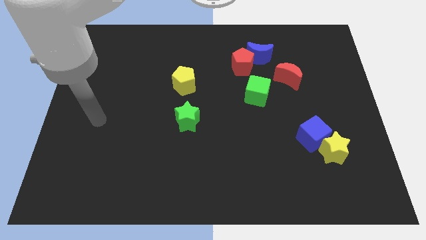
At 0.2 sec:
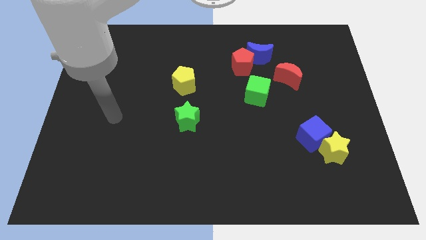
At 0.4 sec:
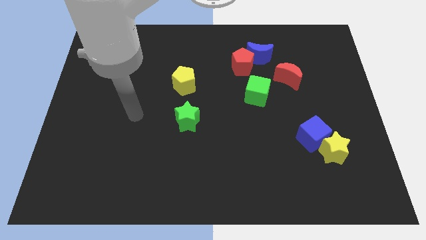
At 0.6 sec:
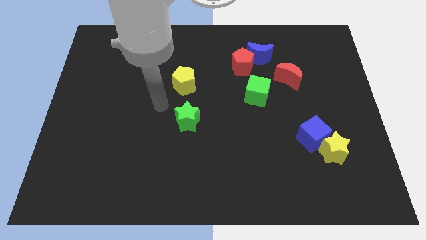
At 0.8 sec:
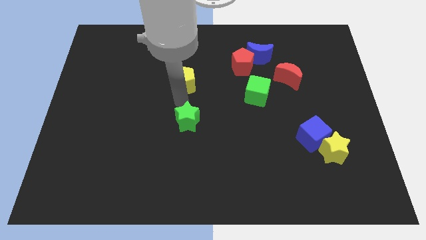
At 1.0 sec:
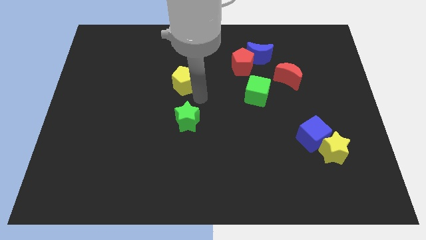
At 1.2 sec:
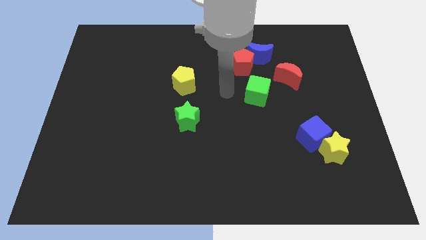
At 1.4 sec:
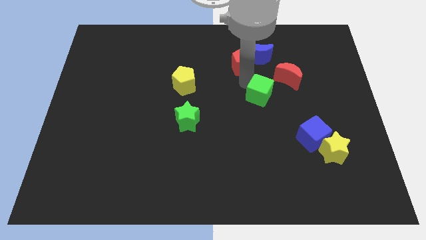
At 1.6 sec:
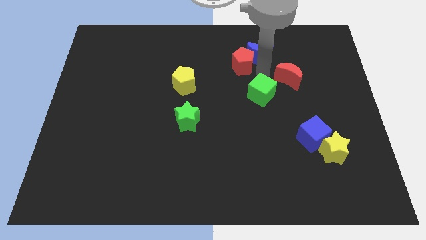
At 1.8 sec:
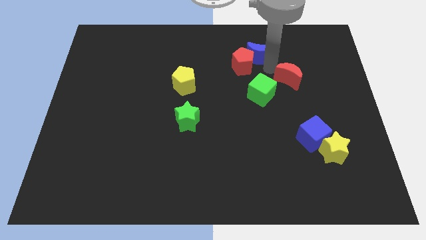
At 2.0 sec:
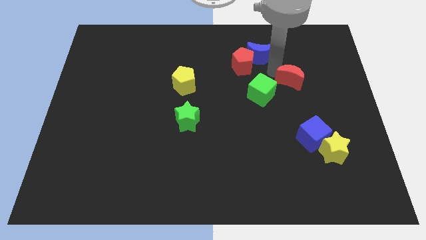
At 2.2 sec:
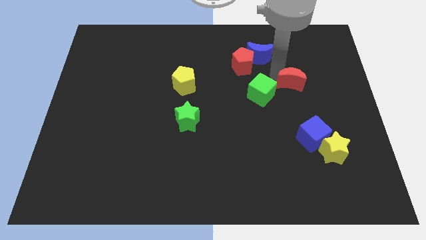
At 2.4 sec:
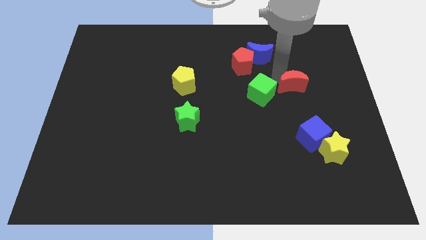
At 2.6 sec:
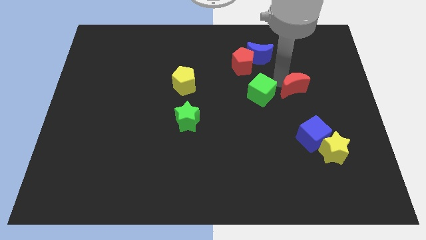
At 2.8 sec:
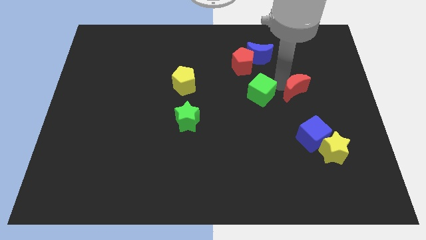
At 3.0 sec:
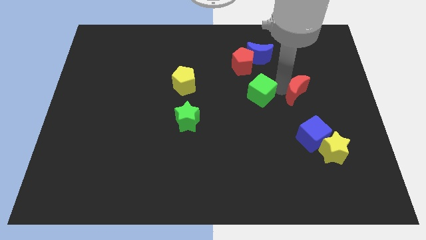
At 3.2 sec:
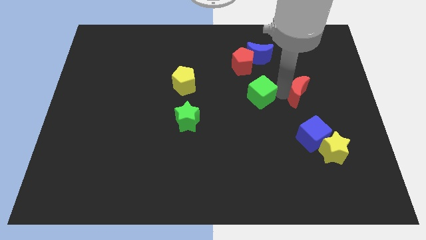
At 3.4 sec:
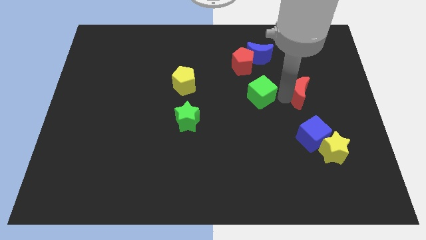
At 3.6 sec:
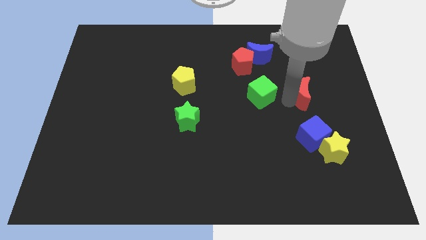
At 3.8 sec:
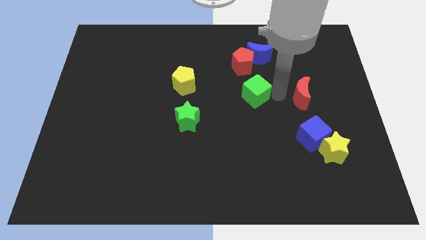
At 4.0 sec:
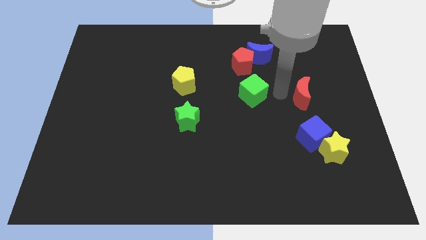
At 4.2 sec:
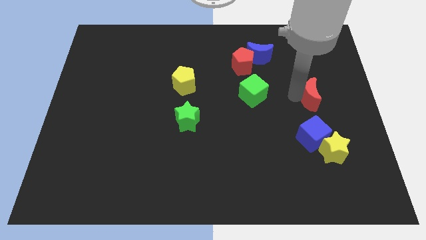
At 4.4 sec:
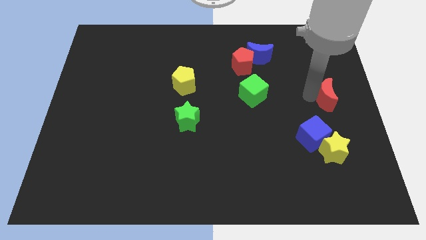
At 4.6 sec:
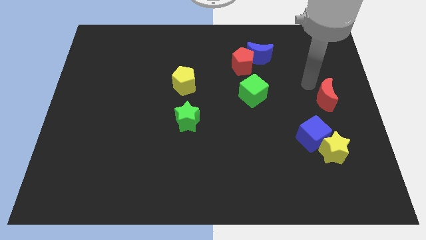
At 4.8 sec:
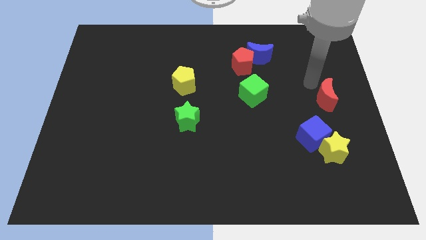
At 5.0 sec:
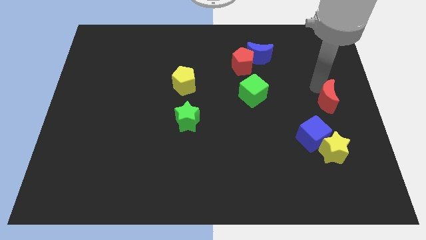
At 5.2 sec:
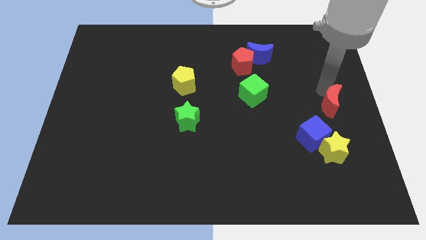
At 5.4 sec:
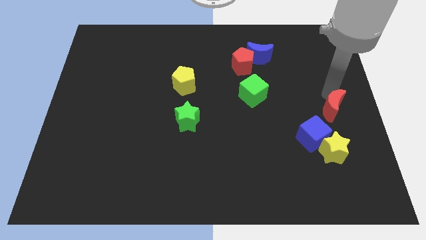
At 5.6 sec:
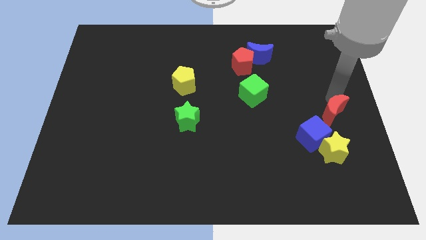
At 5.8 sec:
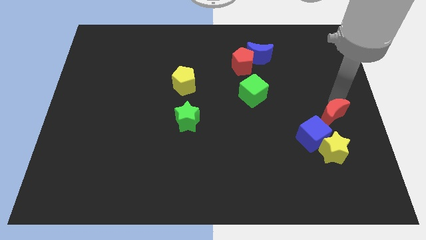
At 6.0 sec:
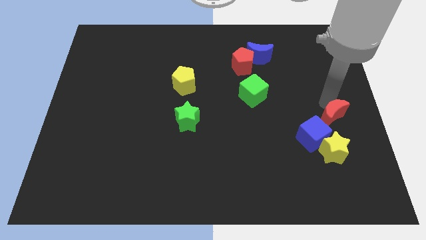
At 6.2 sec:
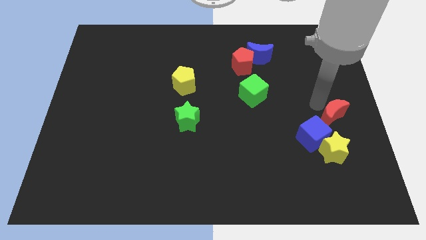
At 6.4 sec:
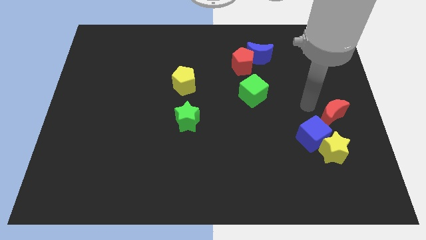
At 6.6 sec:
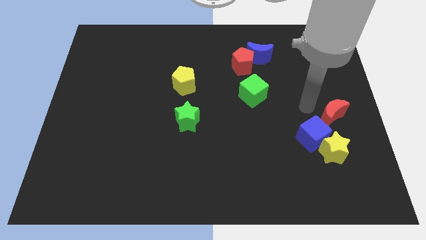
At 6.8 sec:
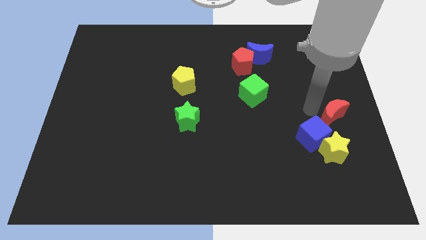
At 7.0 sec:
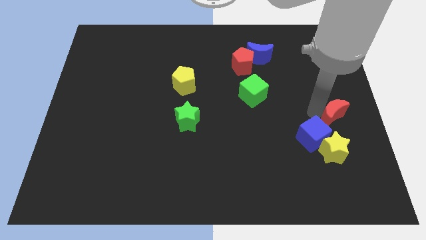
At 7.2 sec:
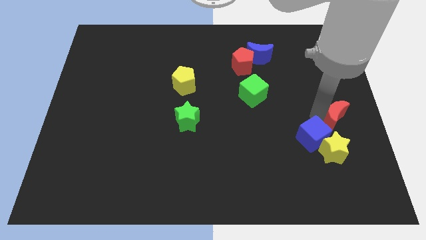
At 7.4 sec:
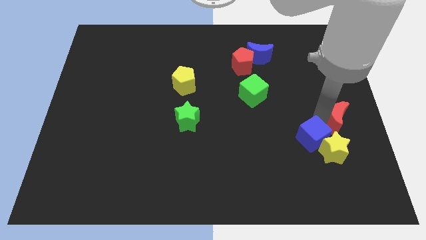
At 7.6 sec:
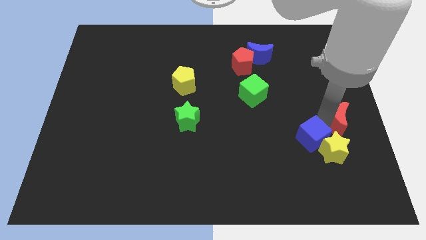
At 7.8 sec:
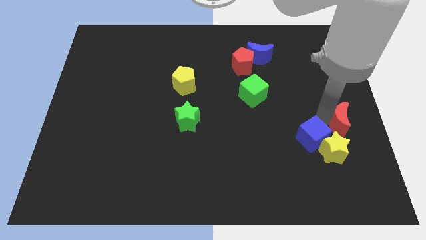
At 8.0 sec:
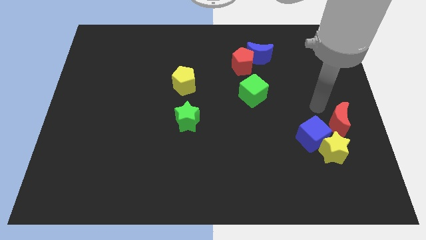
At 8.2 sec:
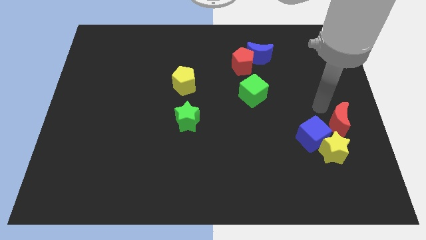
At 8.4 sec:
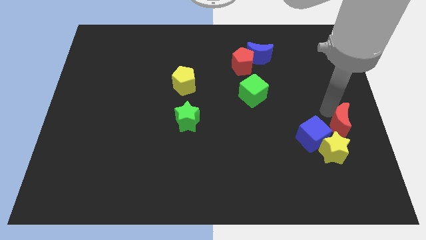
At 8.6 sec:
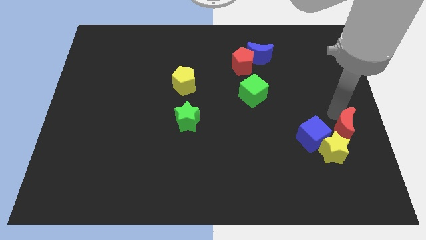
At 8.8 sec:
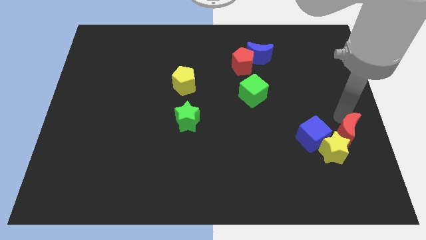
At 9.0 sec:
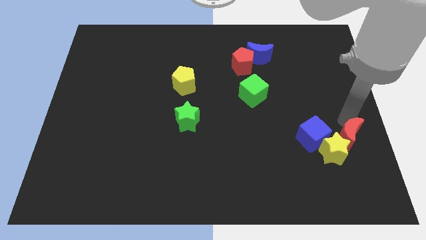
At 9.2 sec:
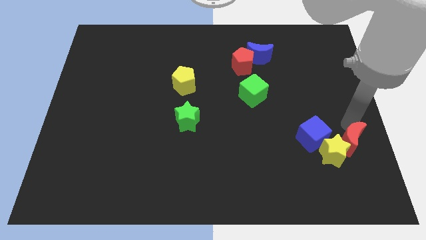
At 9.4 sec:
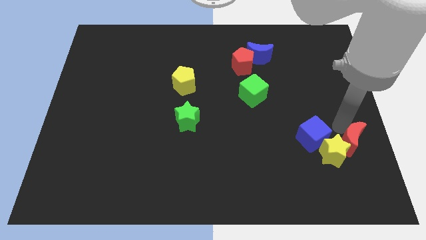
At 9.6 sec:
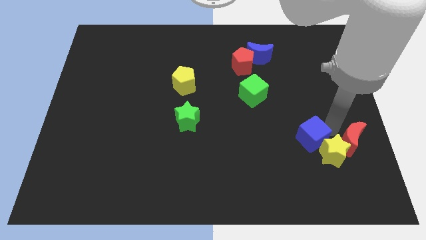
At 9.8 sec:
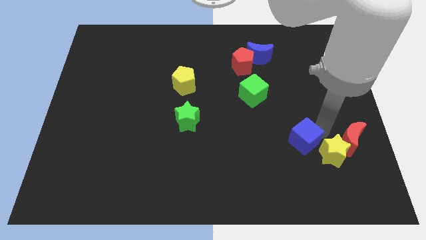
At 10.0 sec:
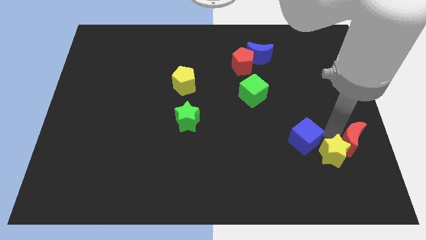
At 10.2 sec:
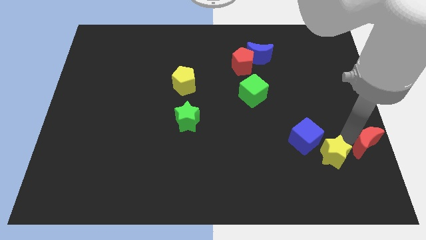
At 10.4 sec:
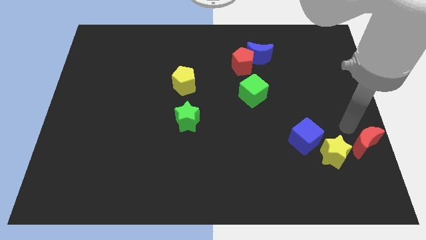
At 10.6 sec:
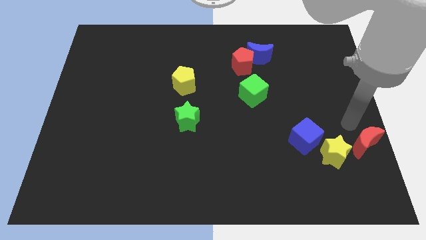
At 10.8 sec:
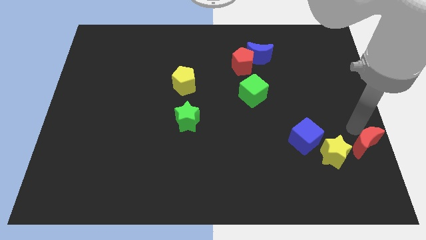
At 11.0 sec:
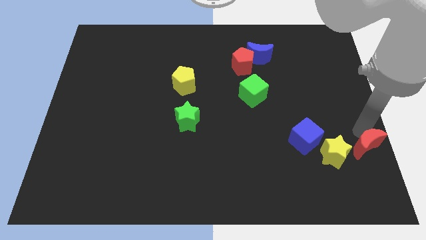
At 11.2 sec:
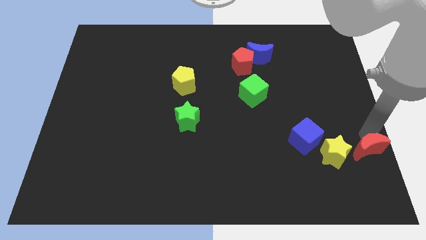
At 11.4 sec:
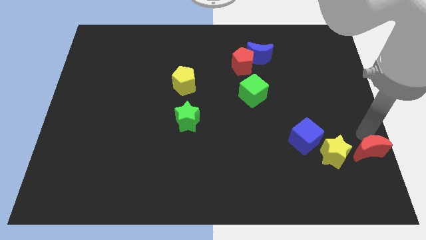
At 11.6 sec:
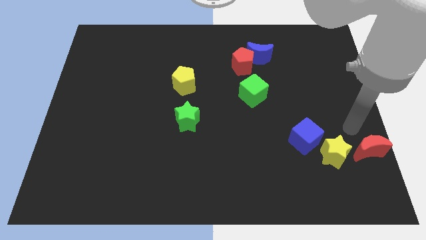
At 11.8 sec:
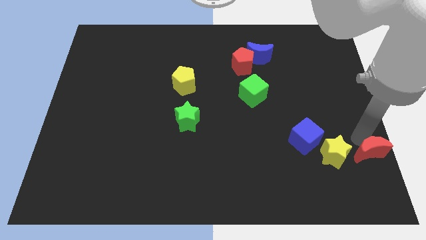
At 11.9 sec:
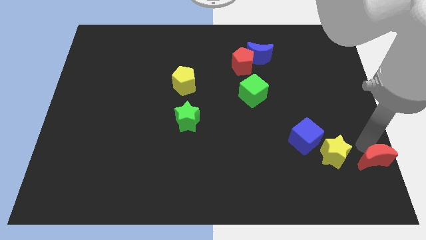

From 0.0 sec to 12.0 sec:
move the red moon to the bottom right
